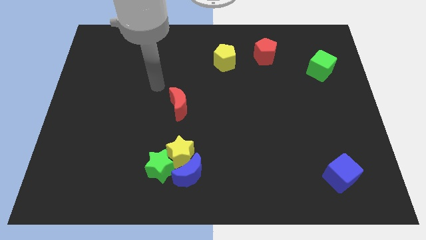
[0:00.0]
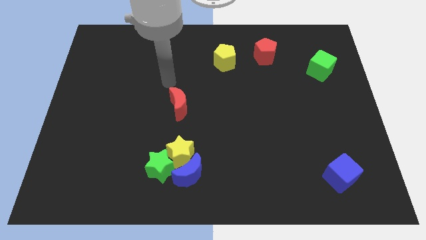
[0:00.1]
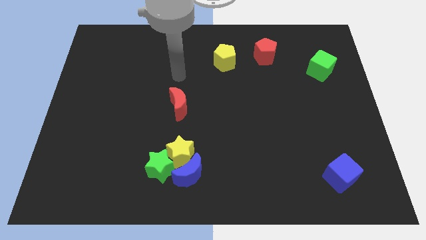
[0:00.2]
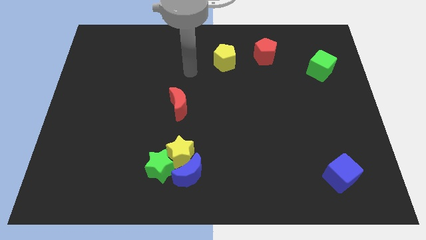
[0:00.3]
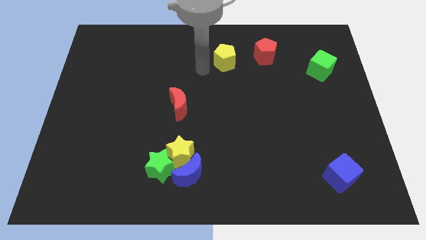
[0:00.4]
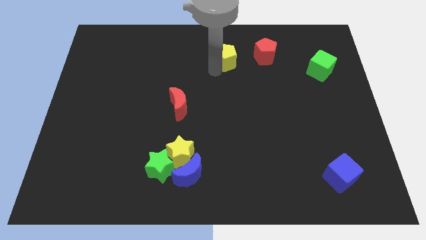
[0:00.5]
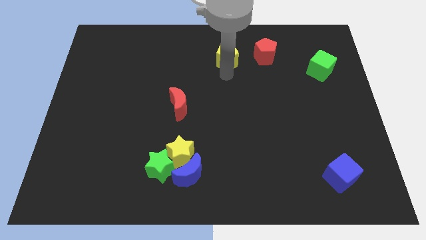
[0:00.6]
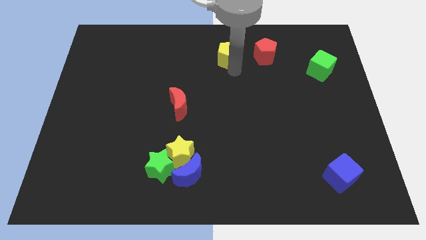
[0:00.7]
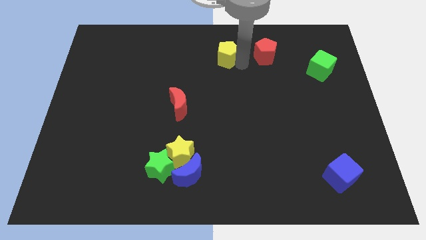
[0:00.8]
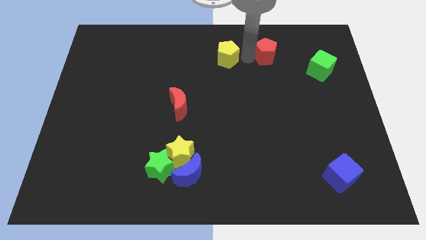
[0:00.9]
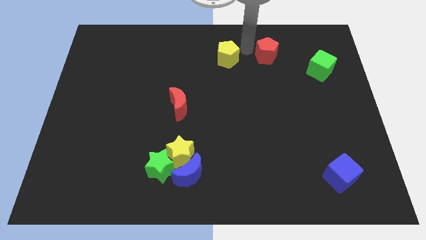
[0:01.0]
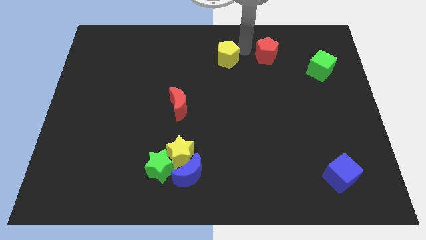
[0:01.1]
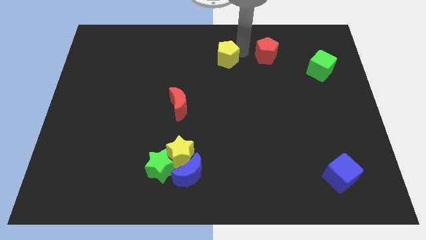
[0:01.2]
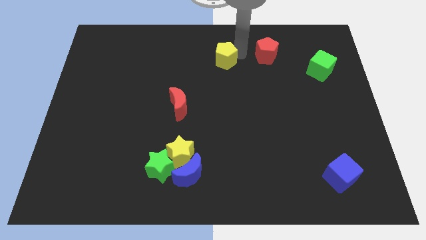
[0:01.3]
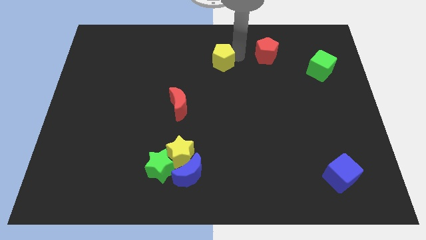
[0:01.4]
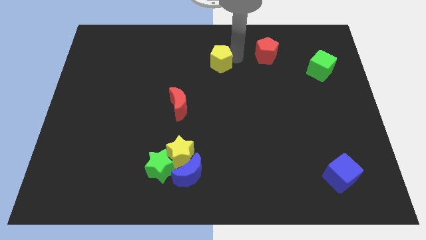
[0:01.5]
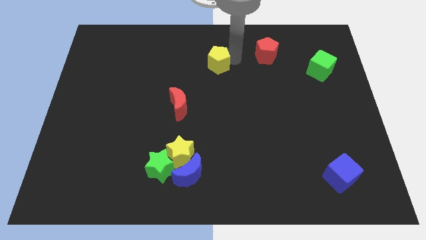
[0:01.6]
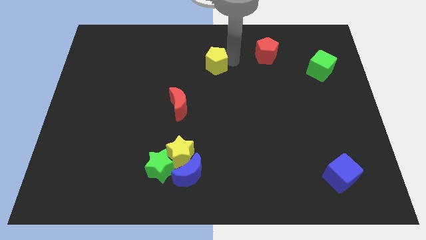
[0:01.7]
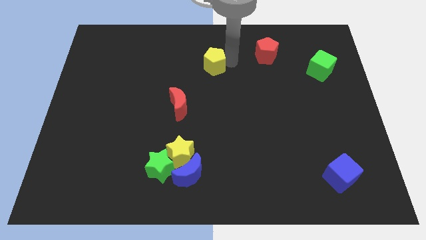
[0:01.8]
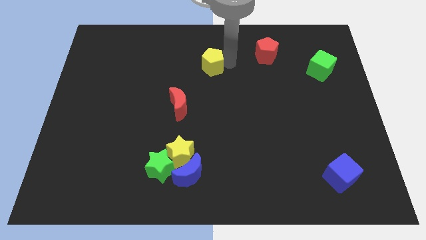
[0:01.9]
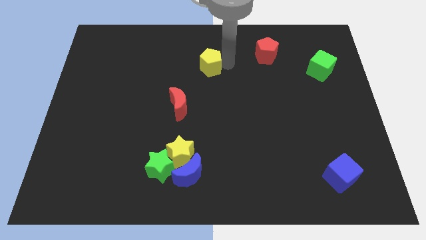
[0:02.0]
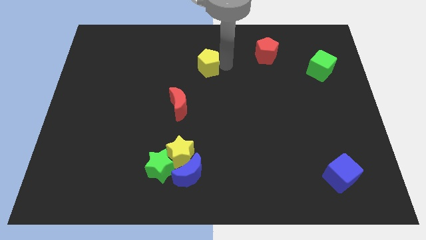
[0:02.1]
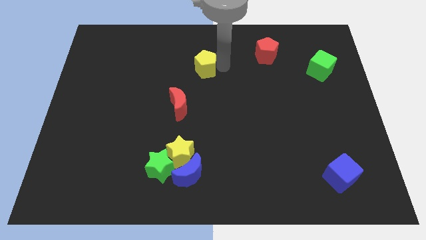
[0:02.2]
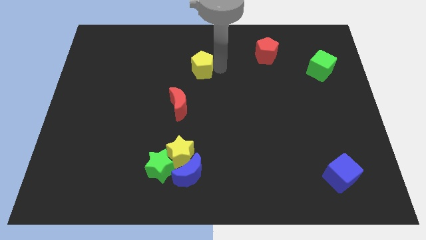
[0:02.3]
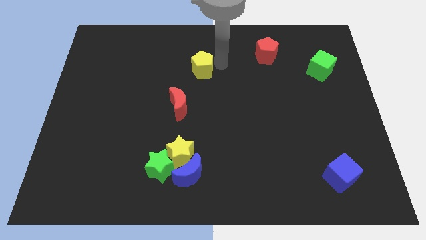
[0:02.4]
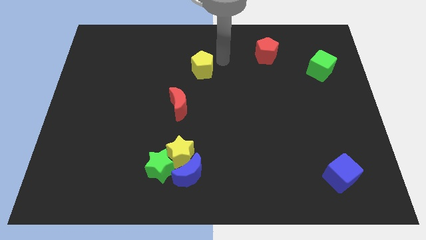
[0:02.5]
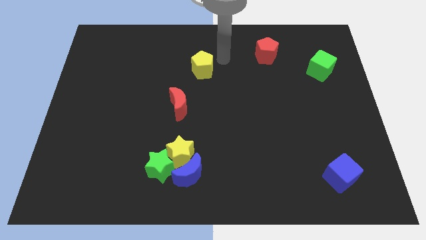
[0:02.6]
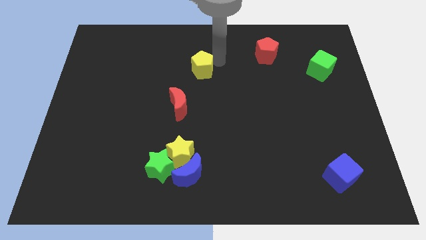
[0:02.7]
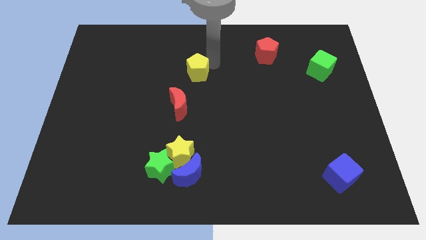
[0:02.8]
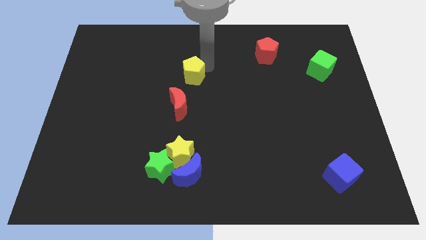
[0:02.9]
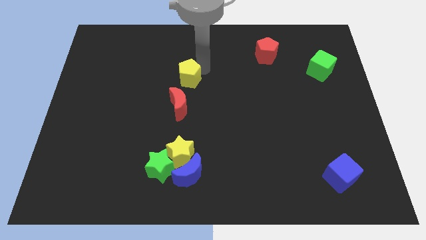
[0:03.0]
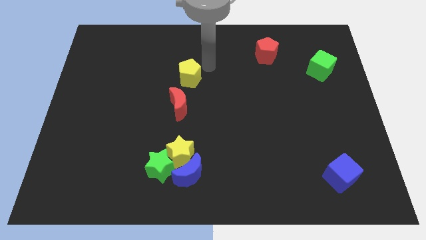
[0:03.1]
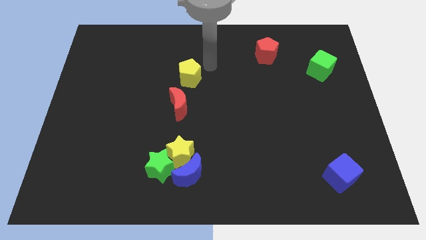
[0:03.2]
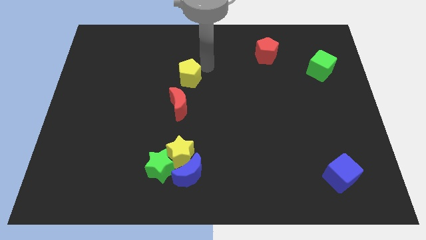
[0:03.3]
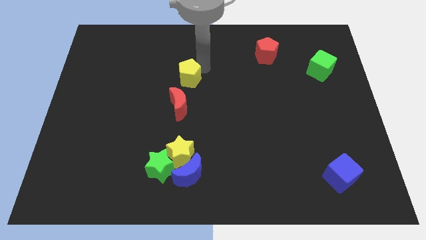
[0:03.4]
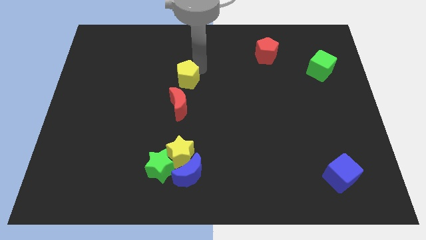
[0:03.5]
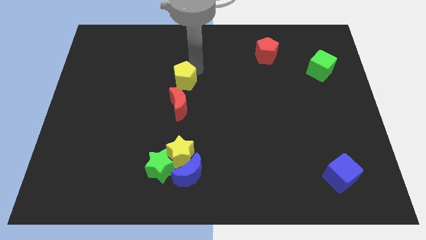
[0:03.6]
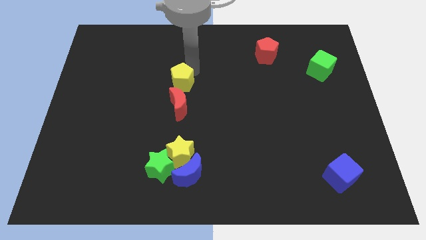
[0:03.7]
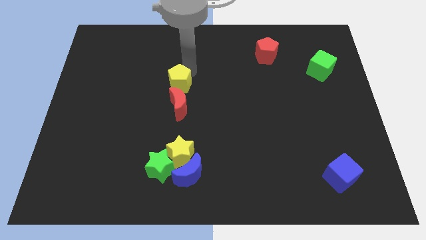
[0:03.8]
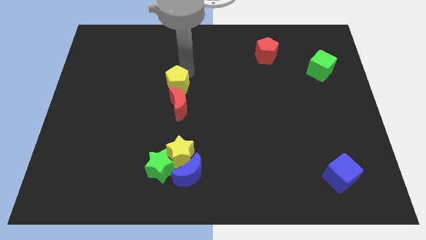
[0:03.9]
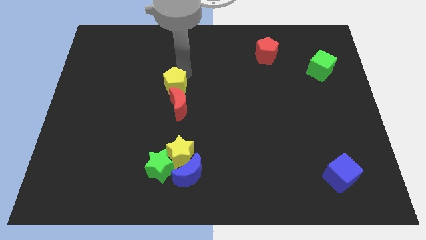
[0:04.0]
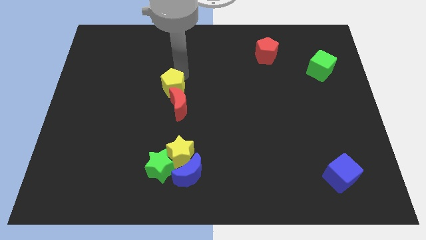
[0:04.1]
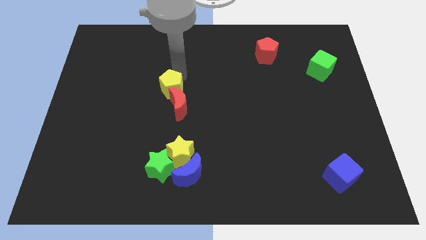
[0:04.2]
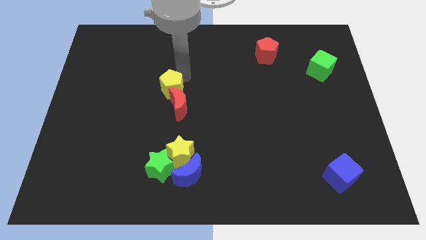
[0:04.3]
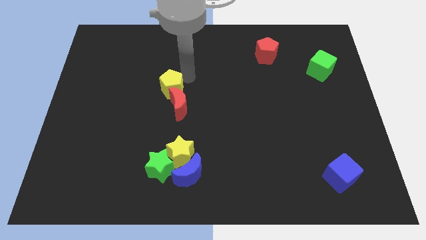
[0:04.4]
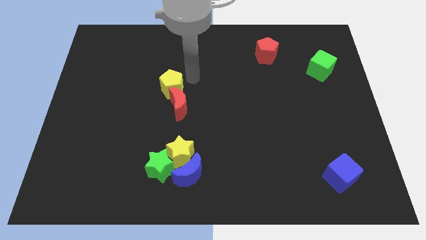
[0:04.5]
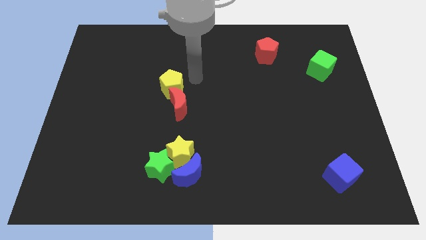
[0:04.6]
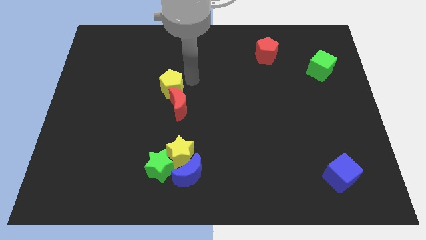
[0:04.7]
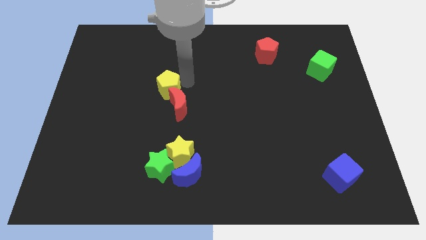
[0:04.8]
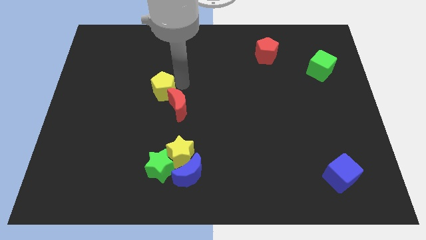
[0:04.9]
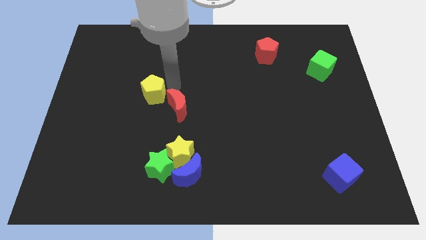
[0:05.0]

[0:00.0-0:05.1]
push the yellow pentagon just left of the red moon

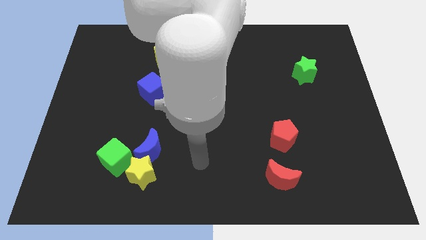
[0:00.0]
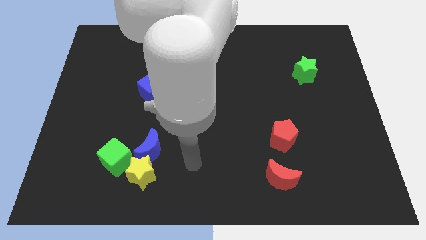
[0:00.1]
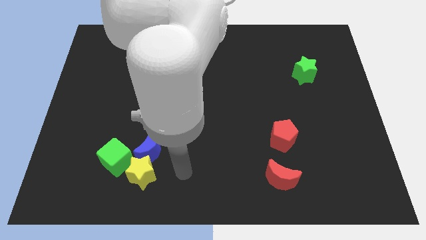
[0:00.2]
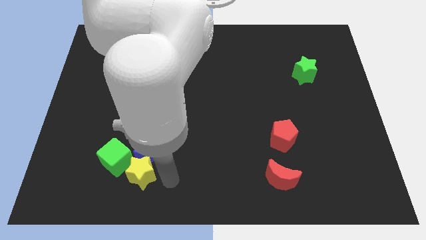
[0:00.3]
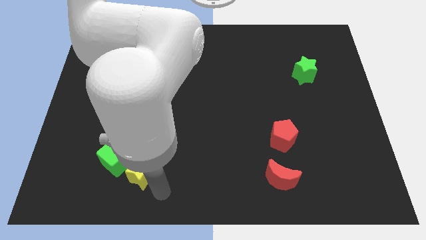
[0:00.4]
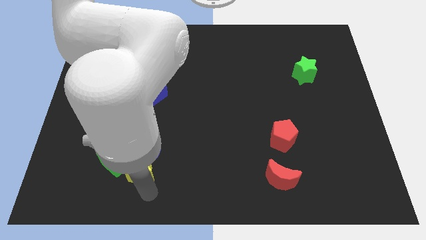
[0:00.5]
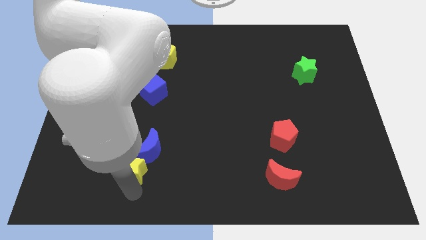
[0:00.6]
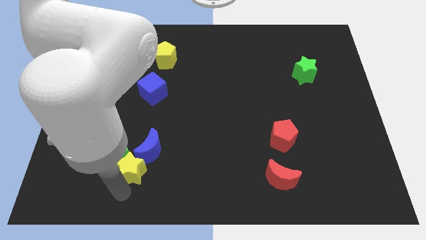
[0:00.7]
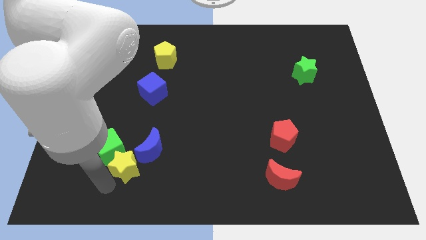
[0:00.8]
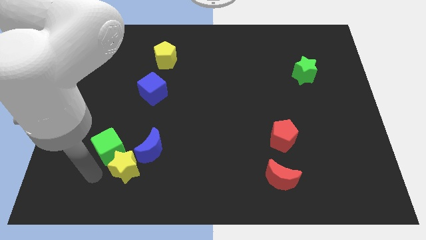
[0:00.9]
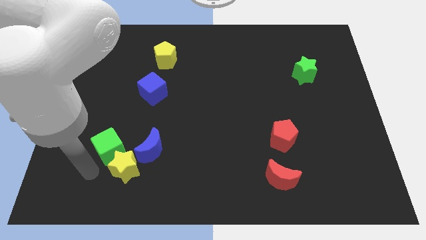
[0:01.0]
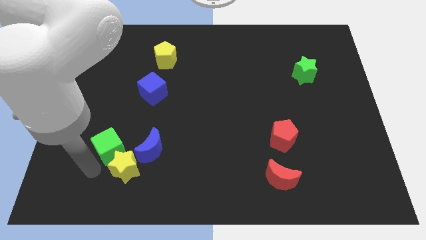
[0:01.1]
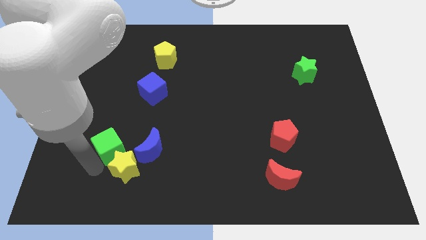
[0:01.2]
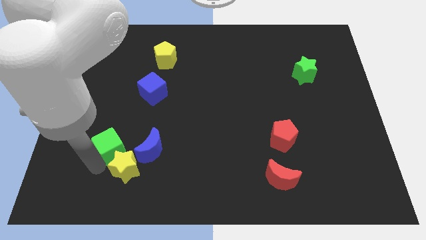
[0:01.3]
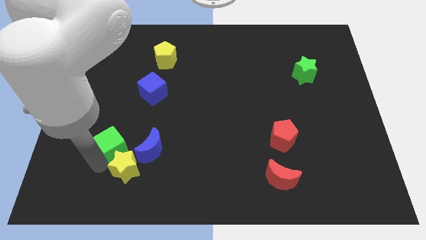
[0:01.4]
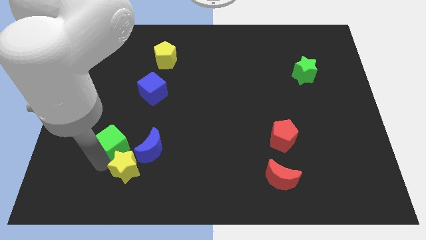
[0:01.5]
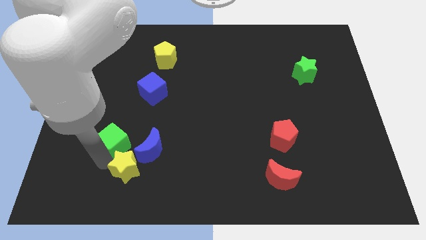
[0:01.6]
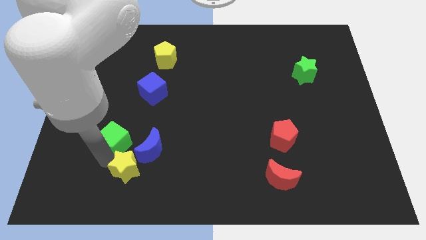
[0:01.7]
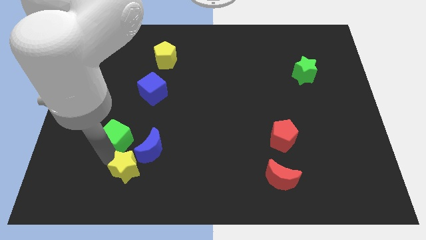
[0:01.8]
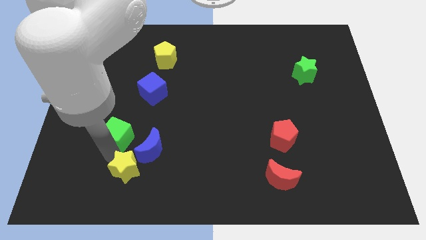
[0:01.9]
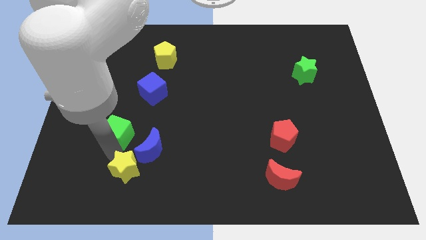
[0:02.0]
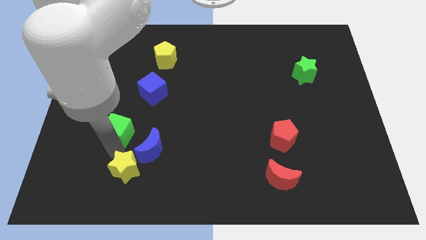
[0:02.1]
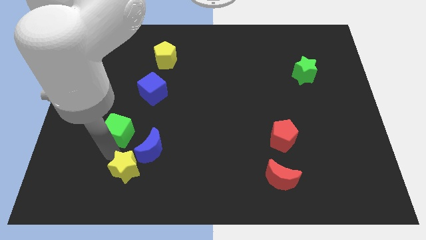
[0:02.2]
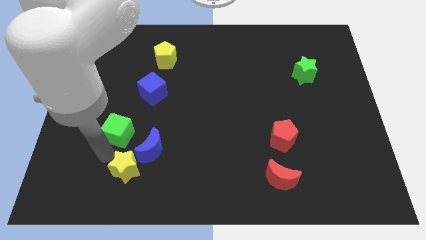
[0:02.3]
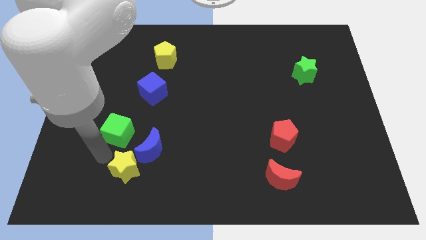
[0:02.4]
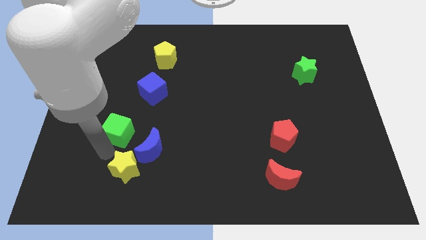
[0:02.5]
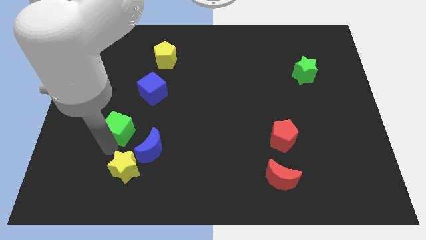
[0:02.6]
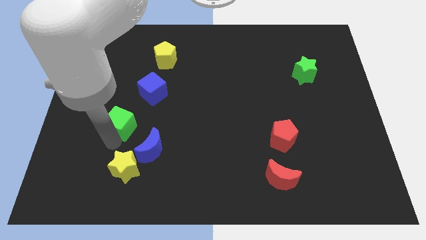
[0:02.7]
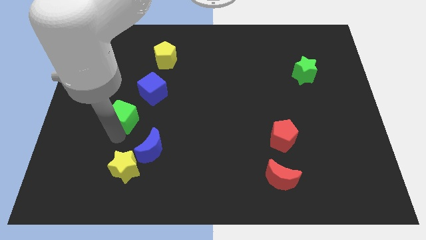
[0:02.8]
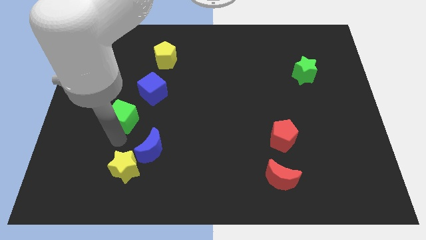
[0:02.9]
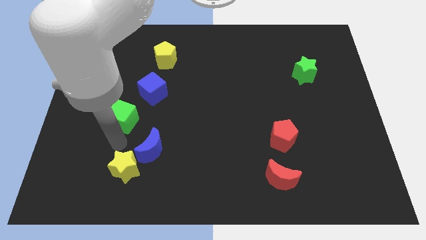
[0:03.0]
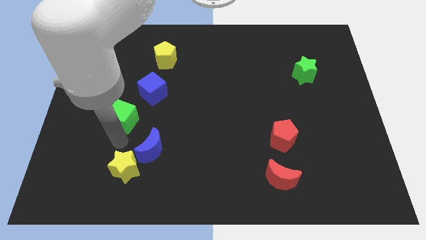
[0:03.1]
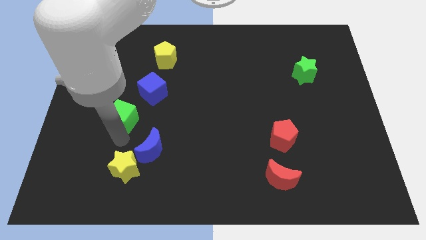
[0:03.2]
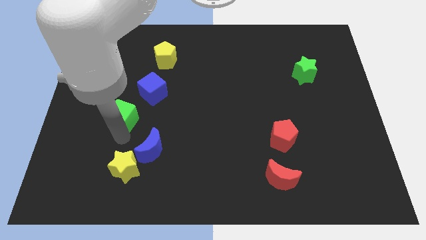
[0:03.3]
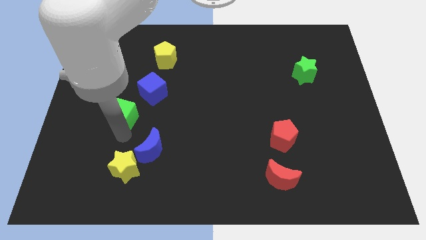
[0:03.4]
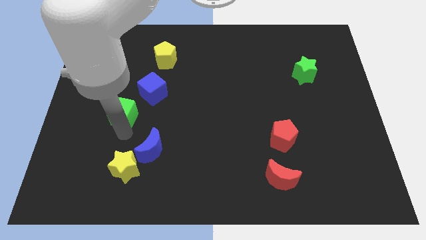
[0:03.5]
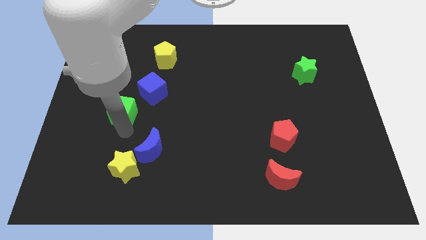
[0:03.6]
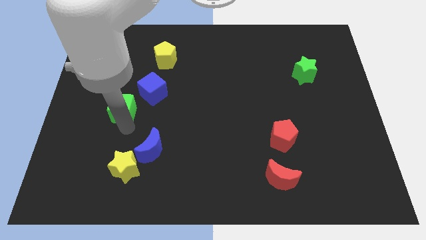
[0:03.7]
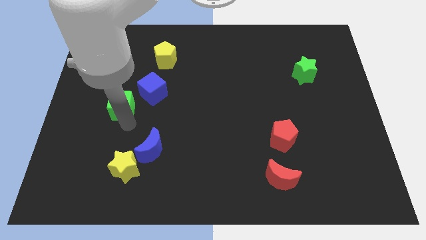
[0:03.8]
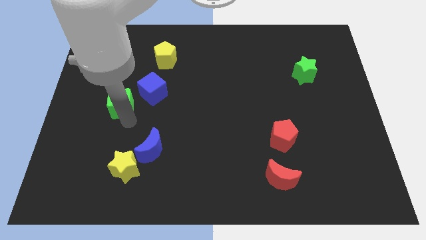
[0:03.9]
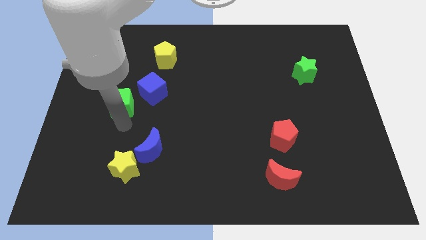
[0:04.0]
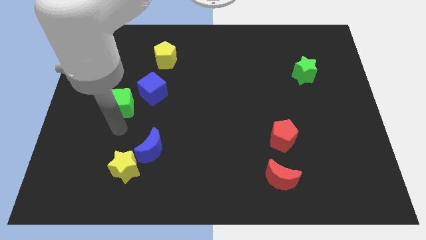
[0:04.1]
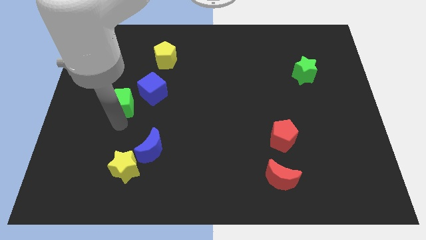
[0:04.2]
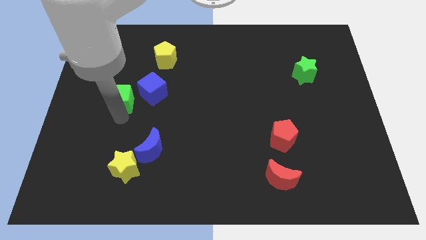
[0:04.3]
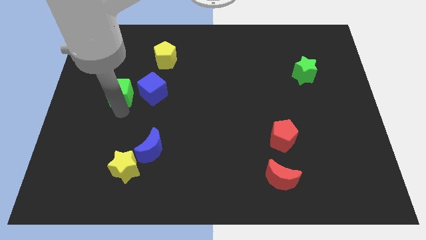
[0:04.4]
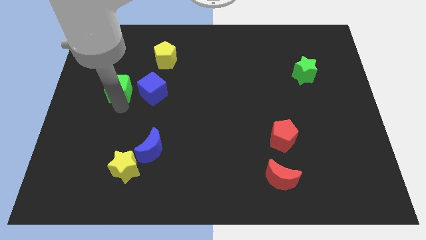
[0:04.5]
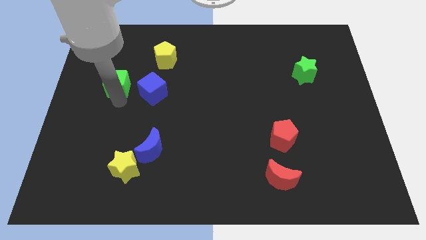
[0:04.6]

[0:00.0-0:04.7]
slide the green cube diagonally up and to the left of the blue cube
